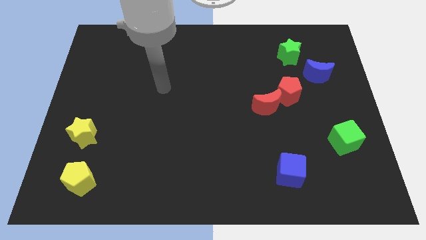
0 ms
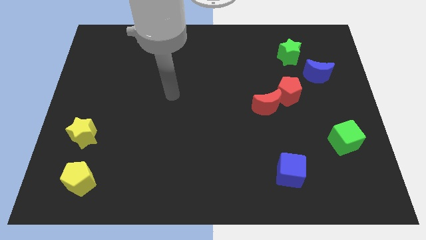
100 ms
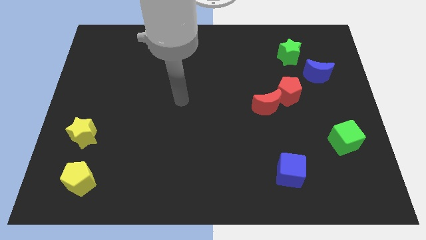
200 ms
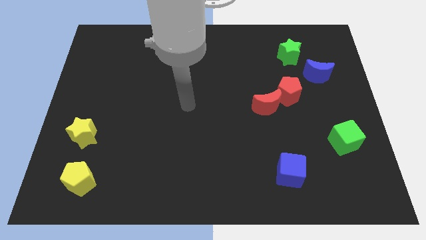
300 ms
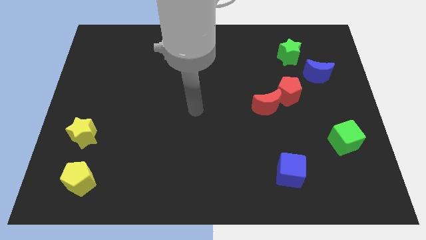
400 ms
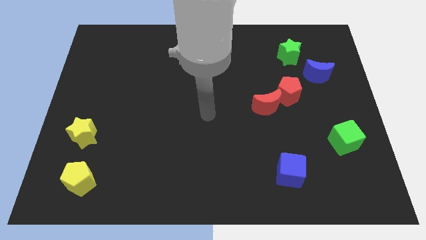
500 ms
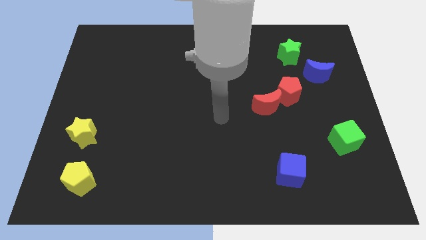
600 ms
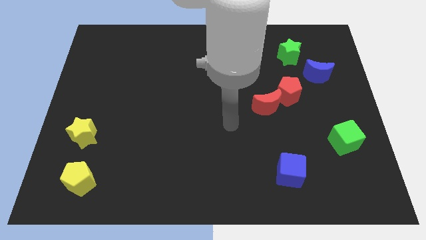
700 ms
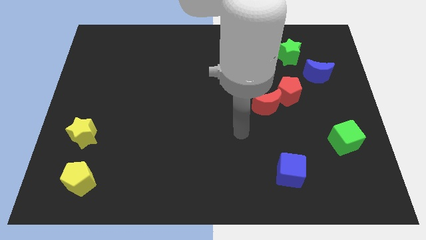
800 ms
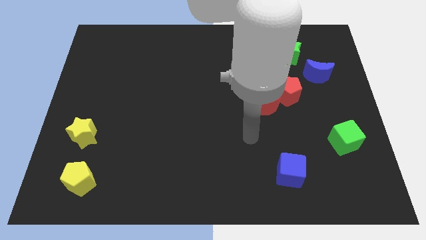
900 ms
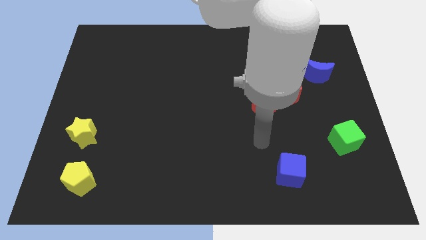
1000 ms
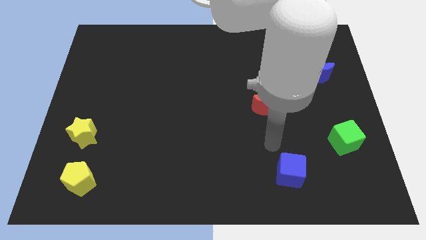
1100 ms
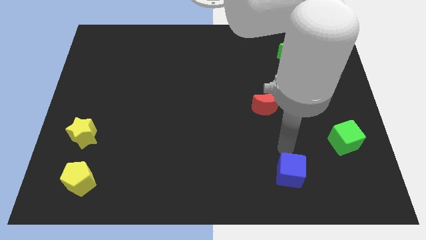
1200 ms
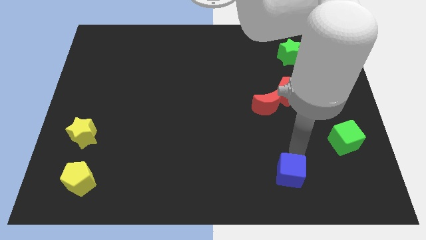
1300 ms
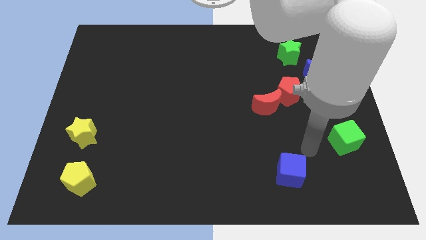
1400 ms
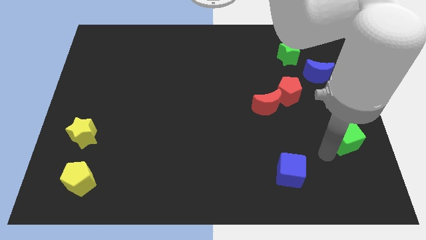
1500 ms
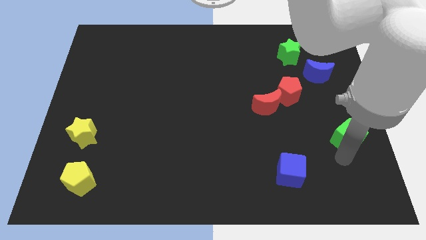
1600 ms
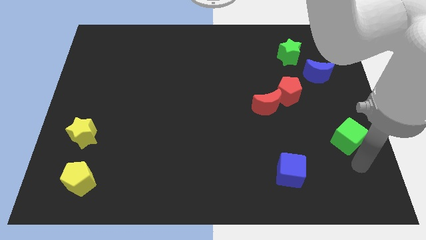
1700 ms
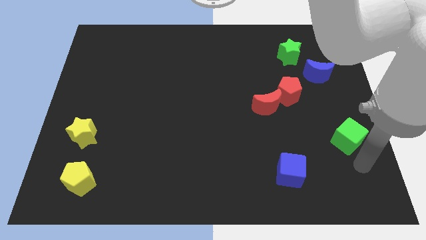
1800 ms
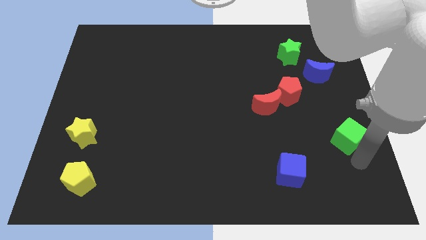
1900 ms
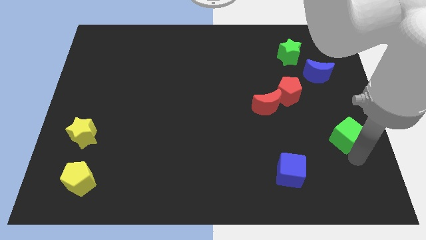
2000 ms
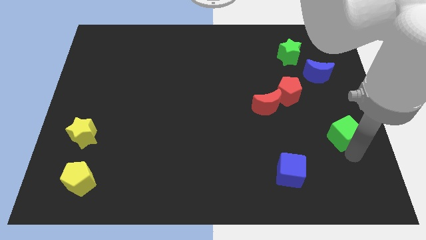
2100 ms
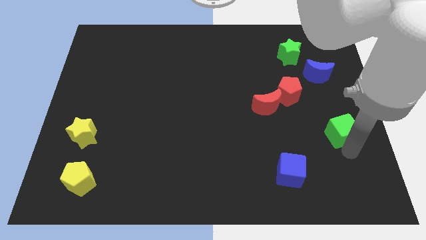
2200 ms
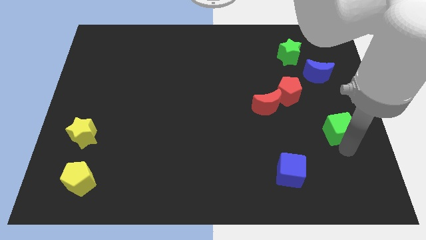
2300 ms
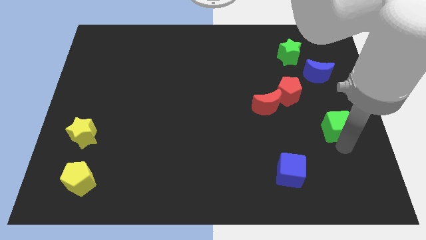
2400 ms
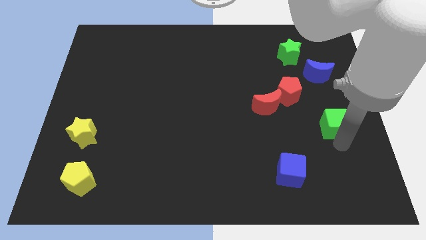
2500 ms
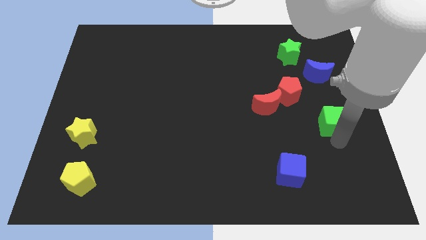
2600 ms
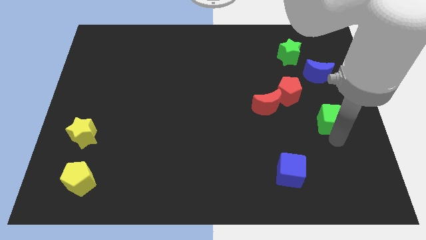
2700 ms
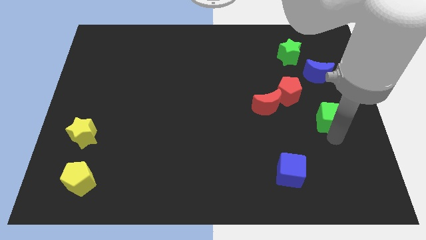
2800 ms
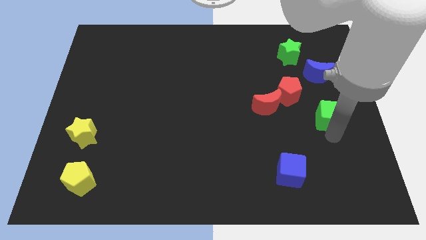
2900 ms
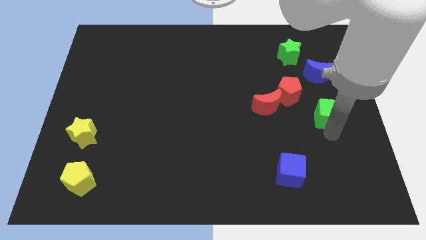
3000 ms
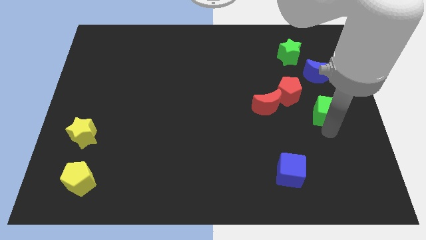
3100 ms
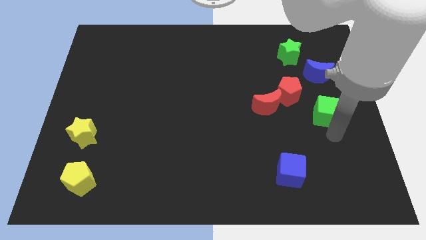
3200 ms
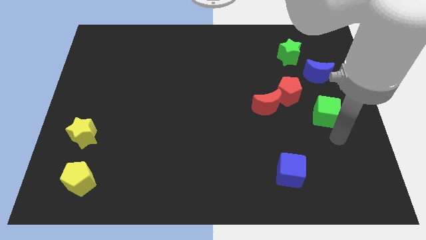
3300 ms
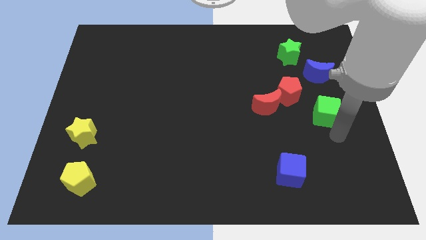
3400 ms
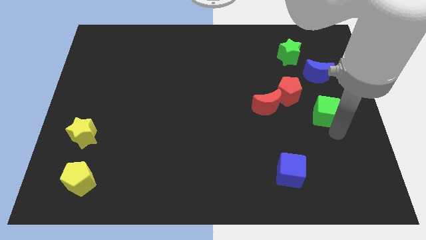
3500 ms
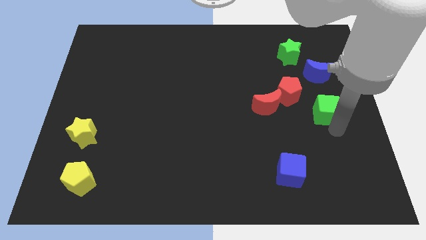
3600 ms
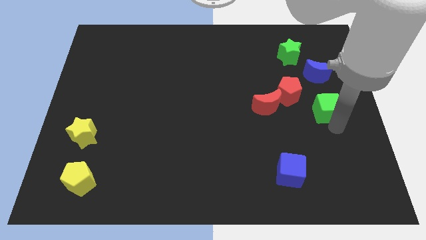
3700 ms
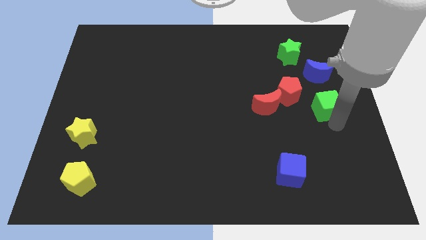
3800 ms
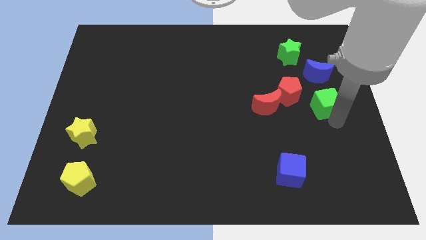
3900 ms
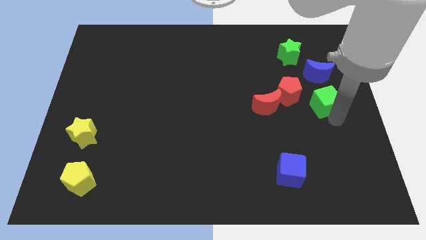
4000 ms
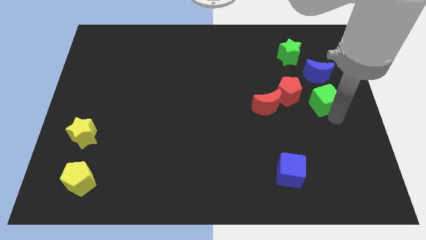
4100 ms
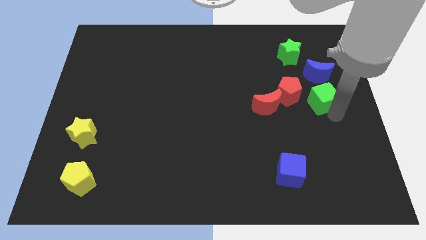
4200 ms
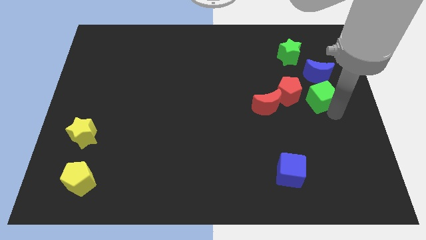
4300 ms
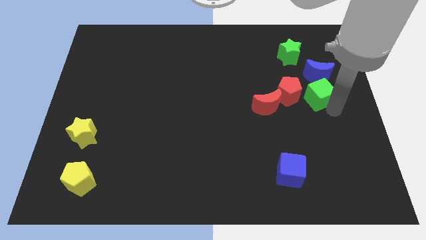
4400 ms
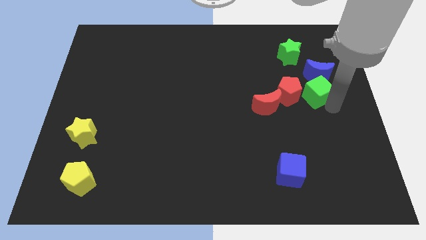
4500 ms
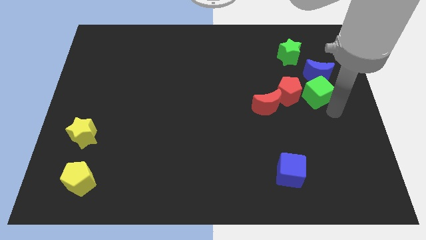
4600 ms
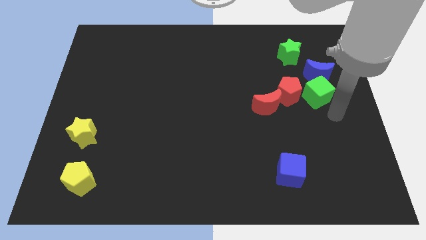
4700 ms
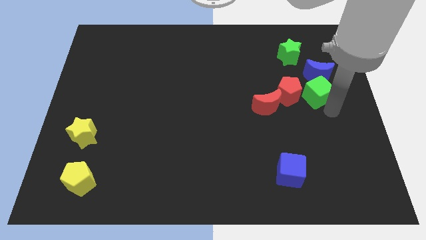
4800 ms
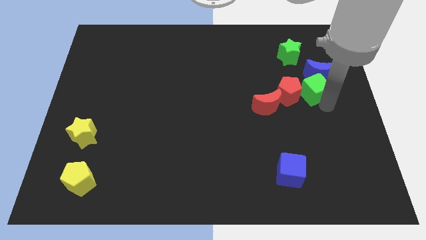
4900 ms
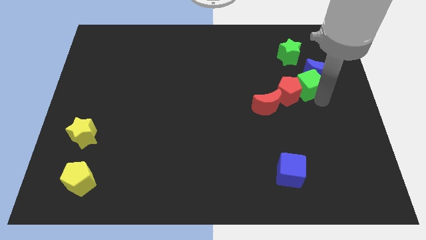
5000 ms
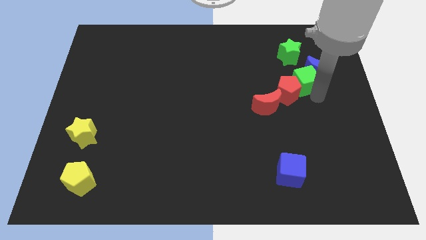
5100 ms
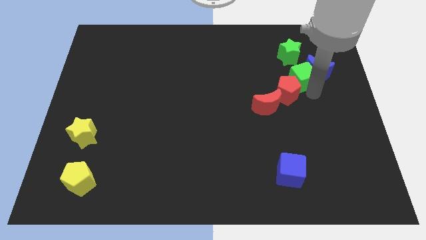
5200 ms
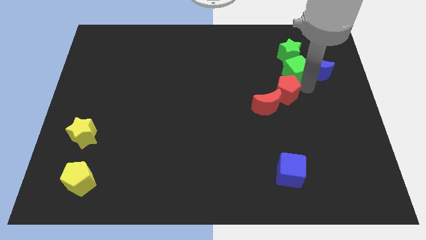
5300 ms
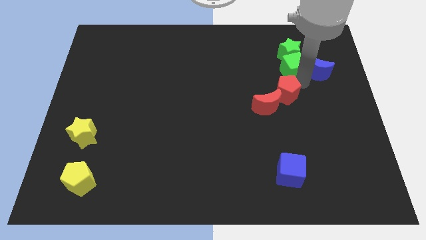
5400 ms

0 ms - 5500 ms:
push the green cube to the green star

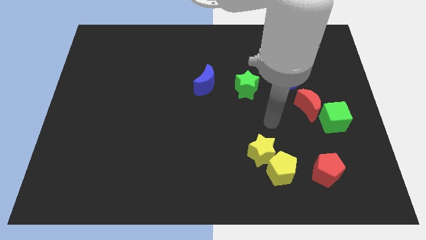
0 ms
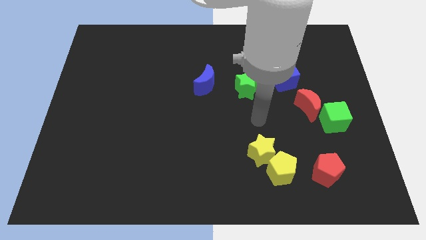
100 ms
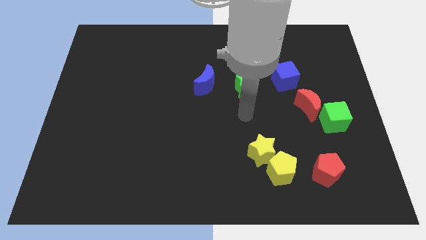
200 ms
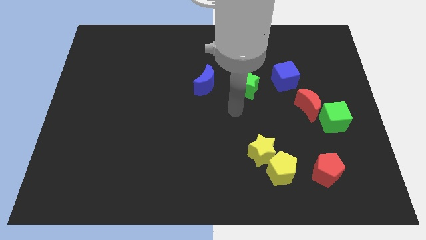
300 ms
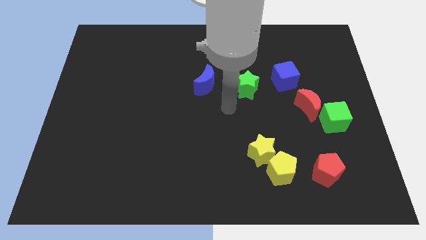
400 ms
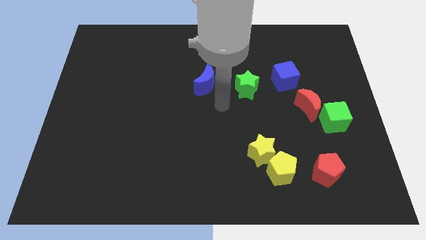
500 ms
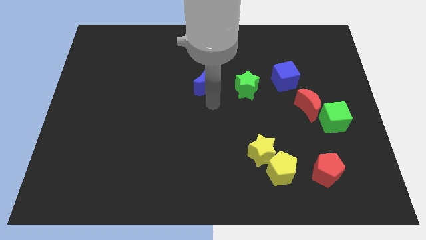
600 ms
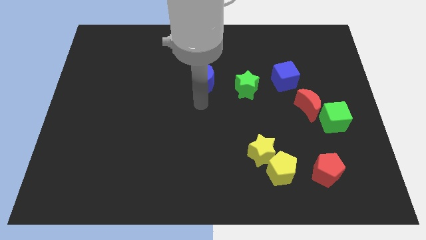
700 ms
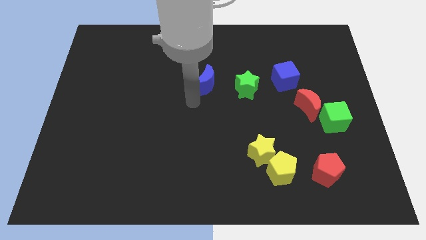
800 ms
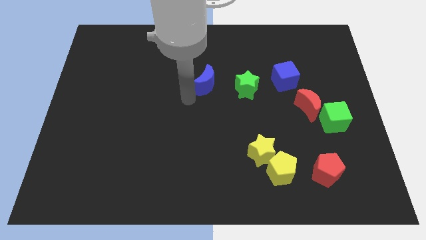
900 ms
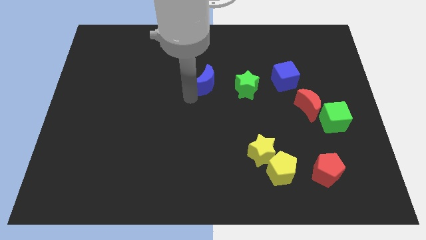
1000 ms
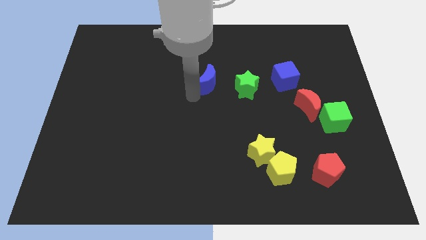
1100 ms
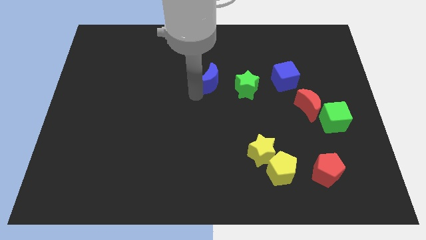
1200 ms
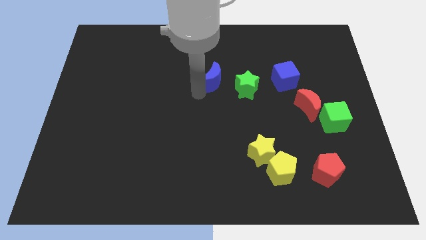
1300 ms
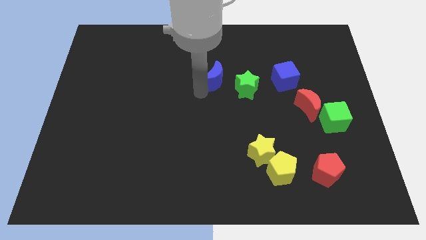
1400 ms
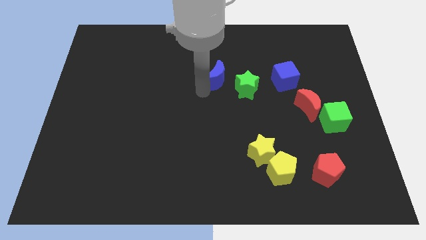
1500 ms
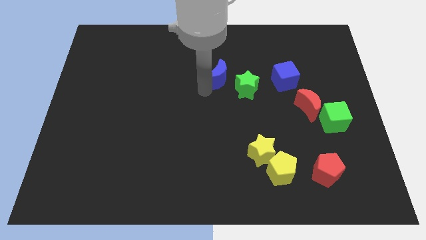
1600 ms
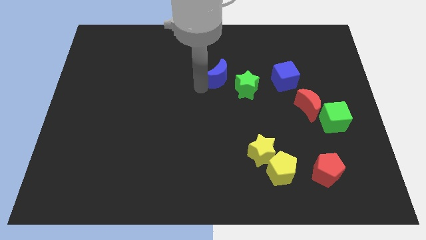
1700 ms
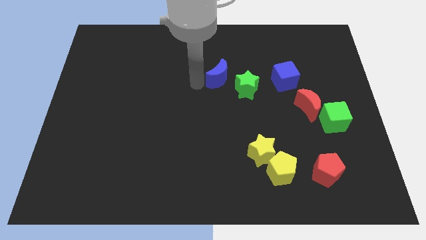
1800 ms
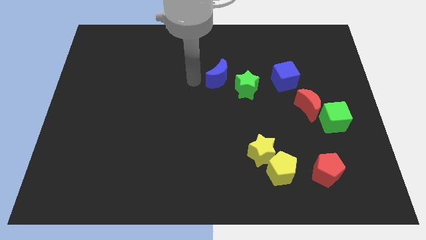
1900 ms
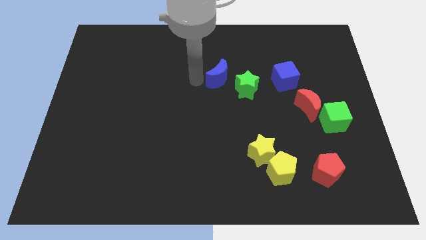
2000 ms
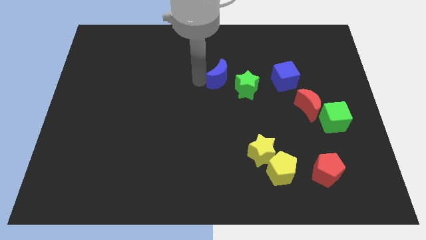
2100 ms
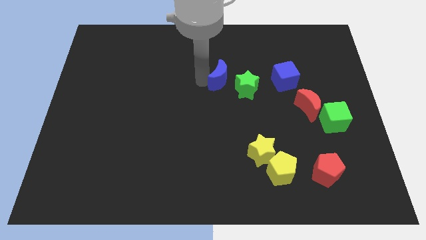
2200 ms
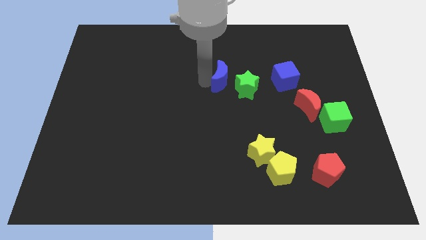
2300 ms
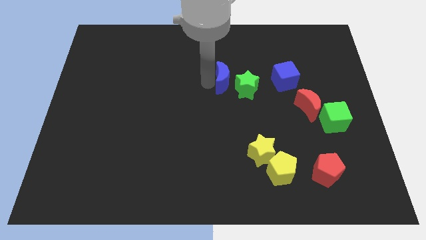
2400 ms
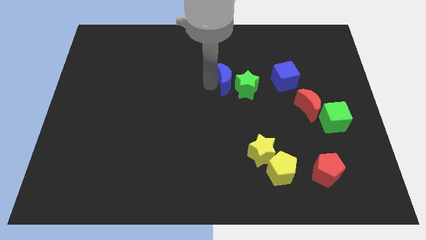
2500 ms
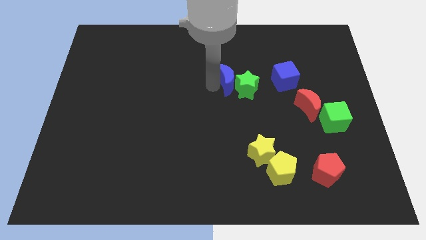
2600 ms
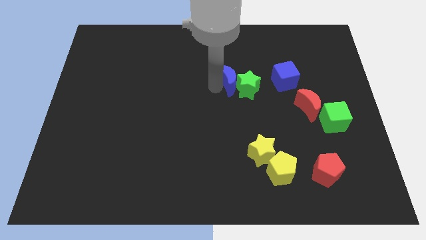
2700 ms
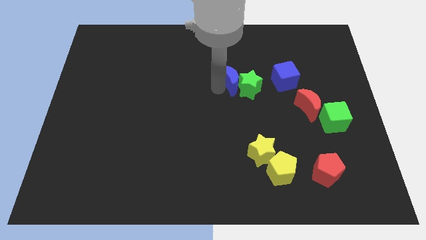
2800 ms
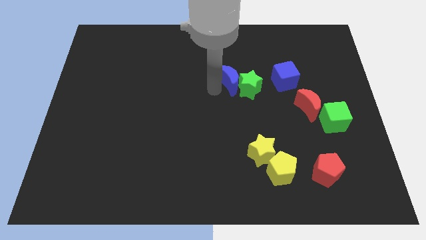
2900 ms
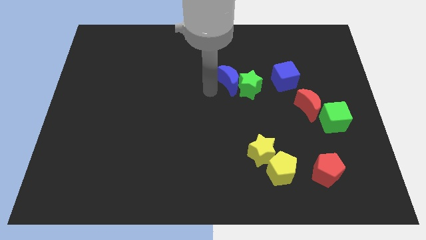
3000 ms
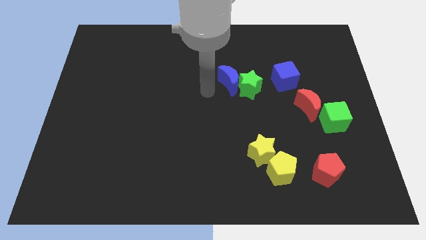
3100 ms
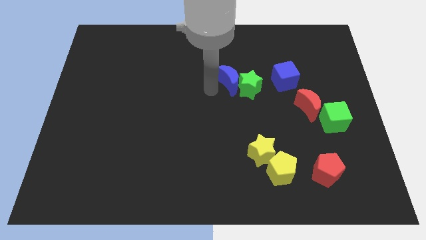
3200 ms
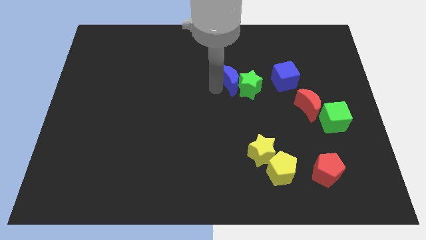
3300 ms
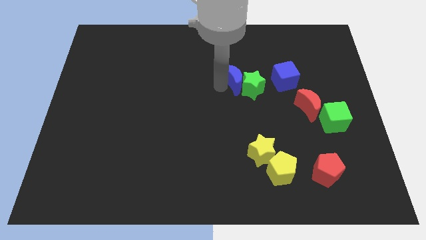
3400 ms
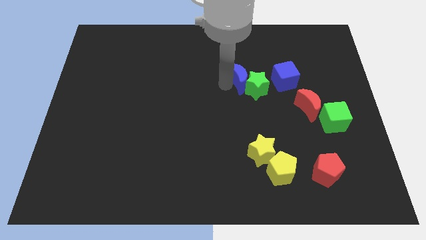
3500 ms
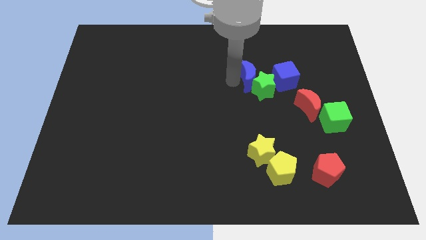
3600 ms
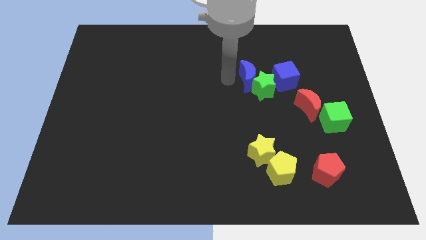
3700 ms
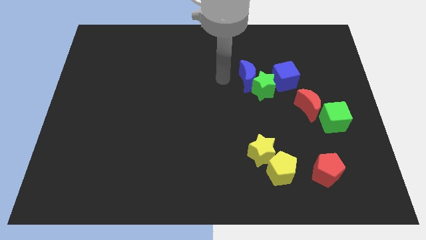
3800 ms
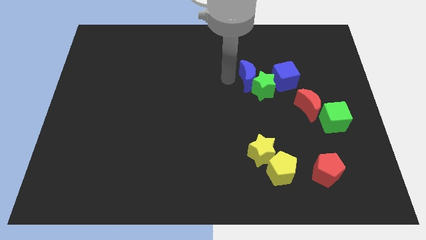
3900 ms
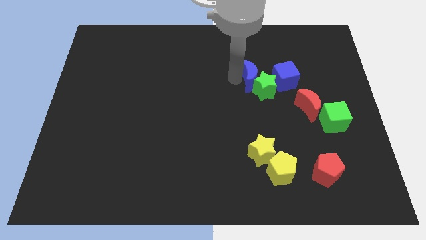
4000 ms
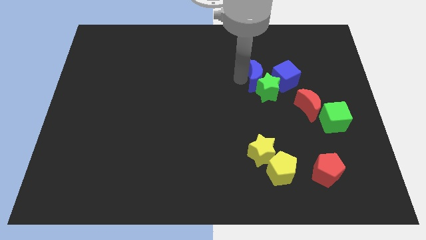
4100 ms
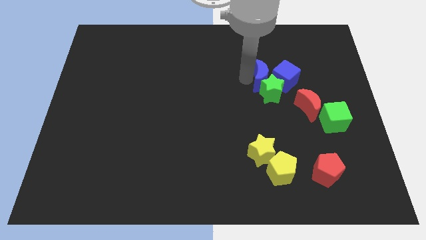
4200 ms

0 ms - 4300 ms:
push the blue moon towards the blue cube
